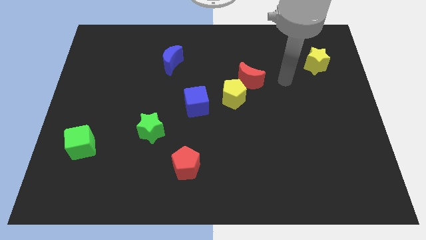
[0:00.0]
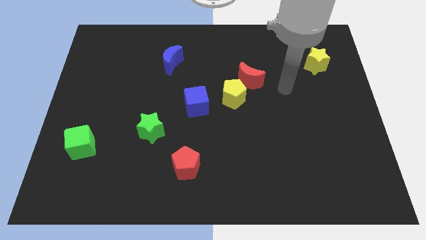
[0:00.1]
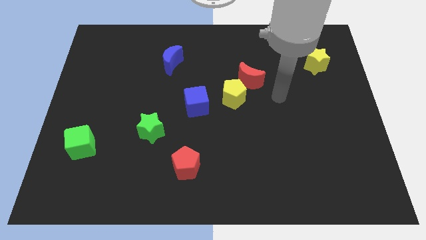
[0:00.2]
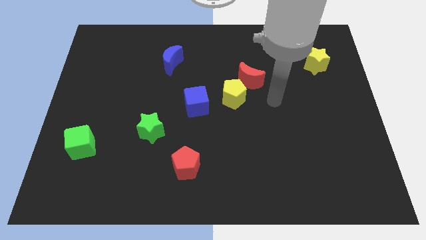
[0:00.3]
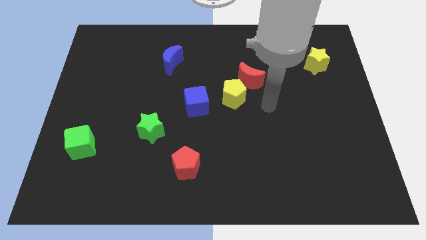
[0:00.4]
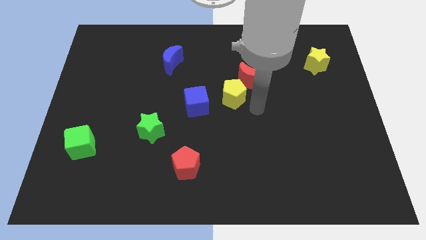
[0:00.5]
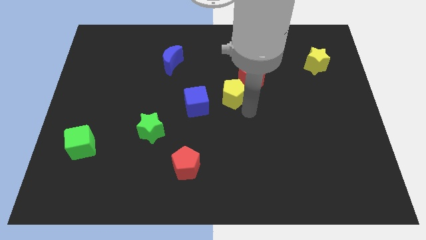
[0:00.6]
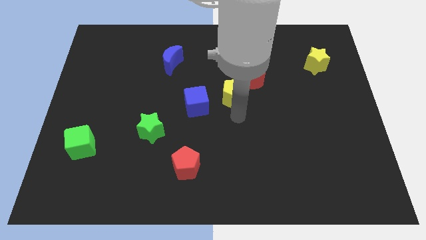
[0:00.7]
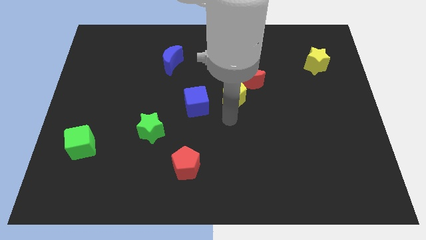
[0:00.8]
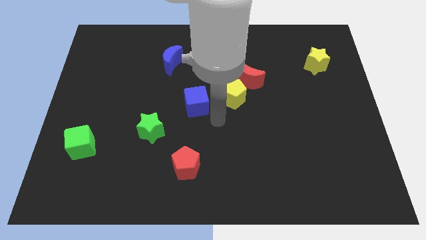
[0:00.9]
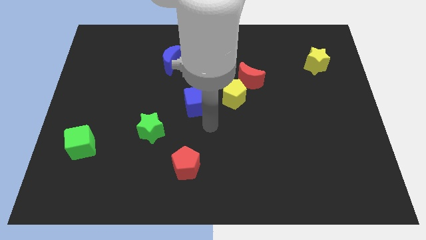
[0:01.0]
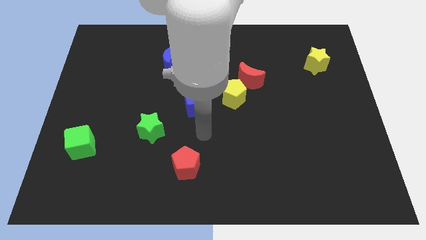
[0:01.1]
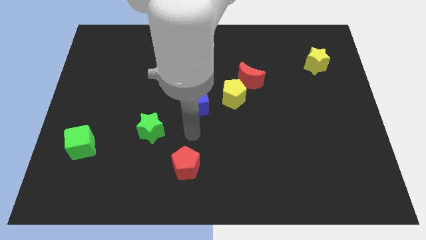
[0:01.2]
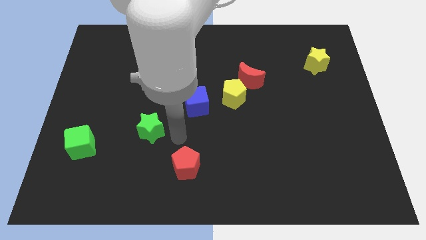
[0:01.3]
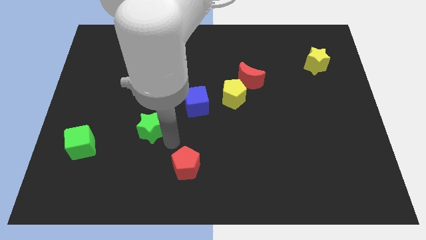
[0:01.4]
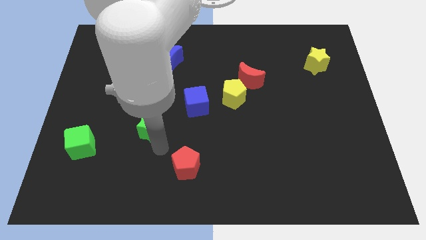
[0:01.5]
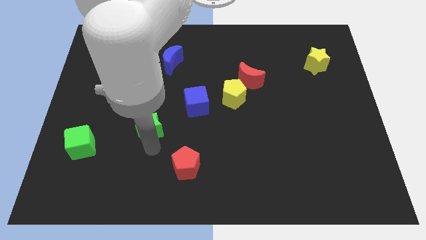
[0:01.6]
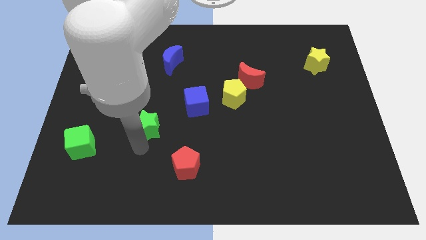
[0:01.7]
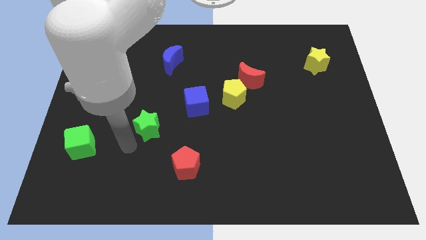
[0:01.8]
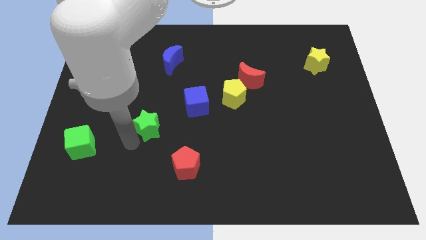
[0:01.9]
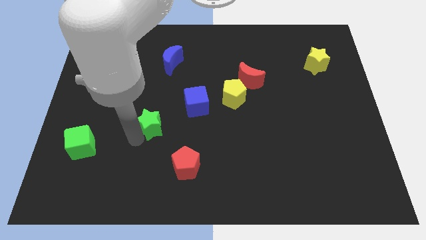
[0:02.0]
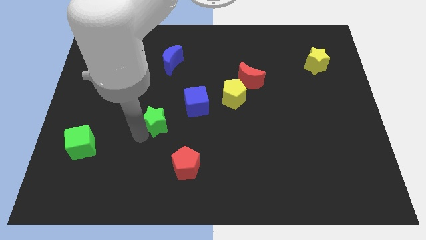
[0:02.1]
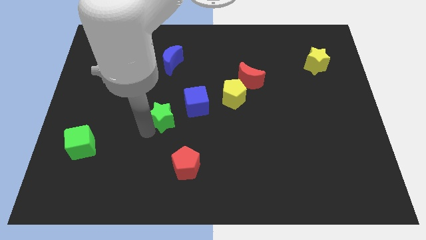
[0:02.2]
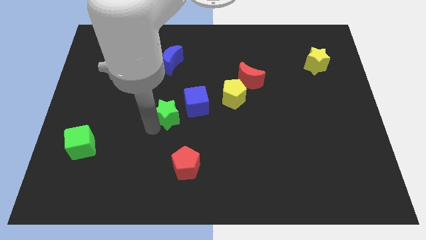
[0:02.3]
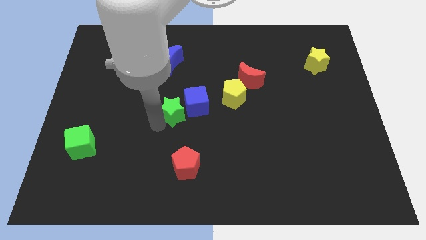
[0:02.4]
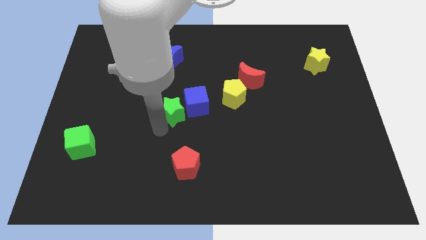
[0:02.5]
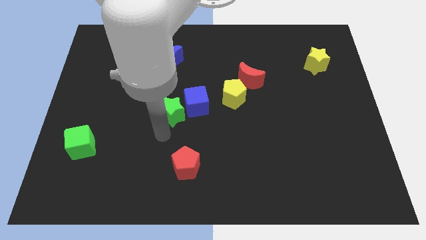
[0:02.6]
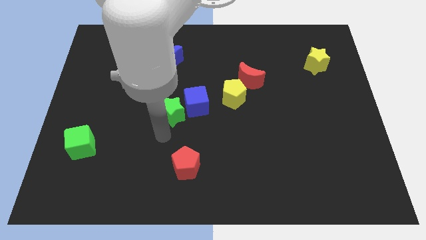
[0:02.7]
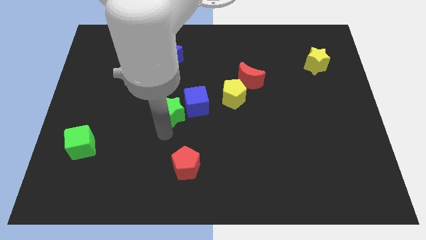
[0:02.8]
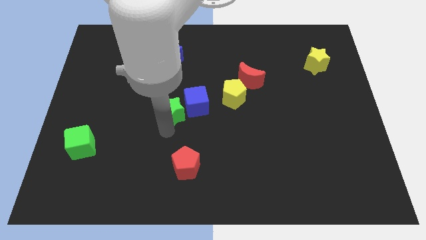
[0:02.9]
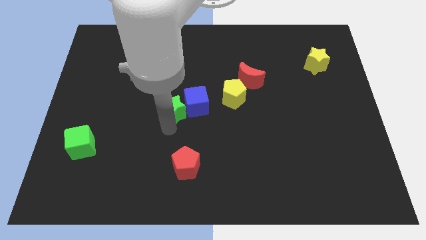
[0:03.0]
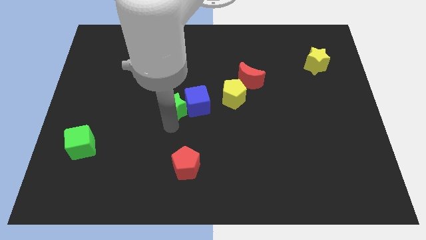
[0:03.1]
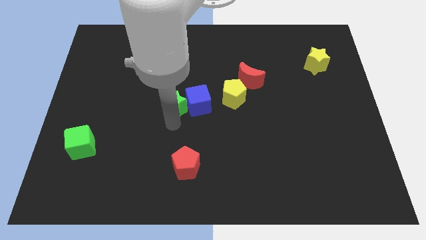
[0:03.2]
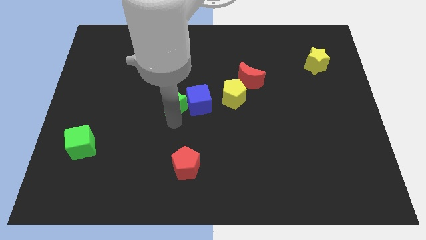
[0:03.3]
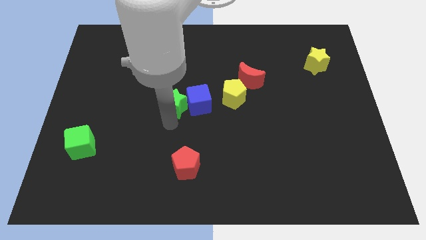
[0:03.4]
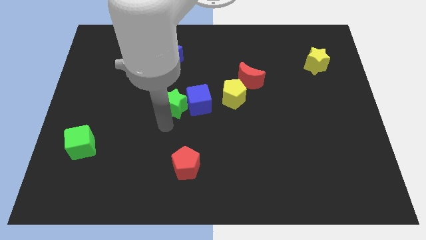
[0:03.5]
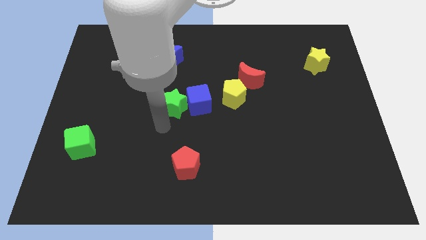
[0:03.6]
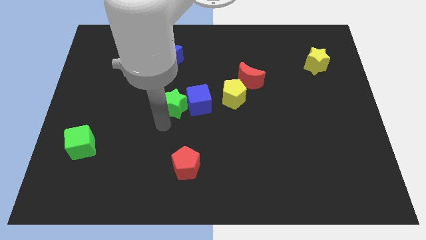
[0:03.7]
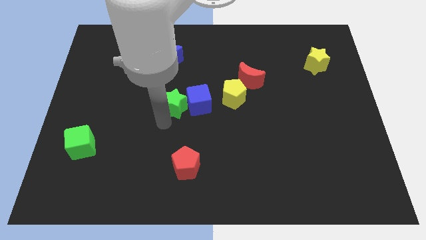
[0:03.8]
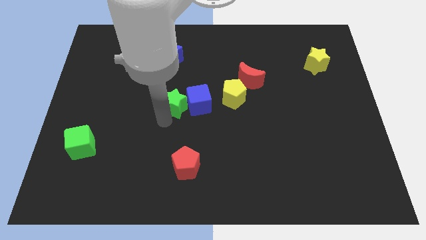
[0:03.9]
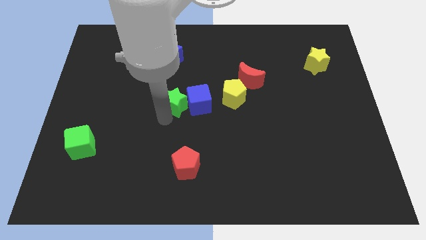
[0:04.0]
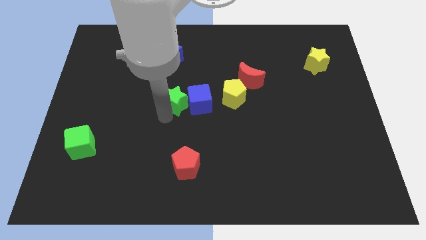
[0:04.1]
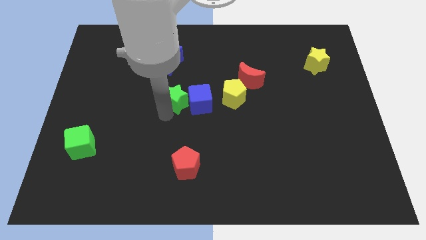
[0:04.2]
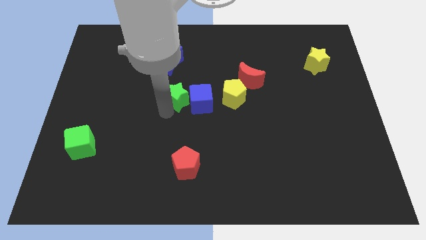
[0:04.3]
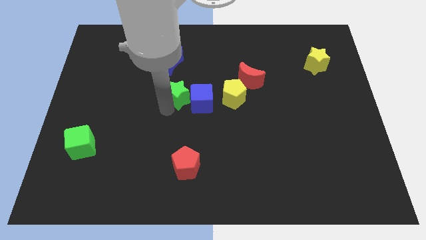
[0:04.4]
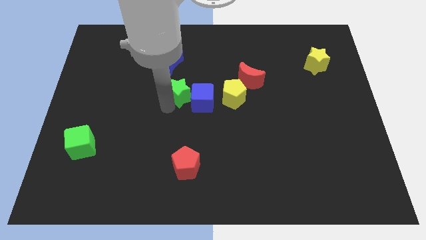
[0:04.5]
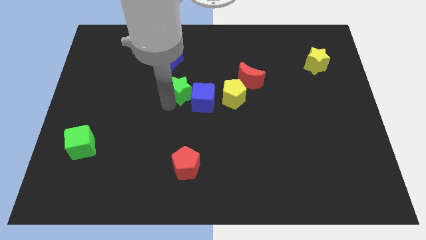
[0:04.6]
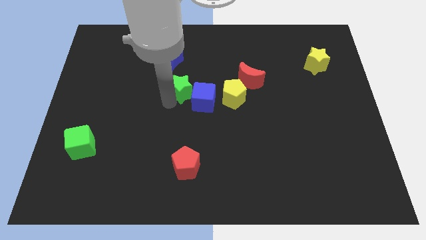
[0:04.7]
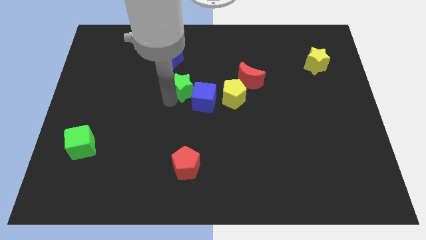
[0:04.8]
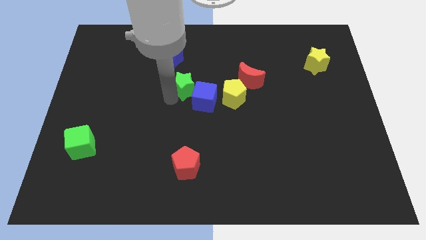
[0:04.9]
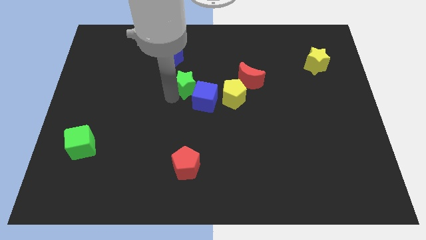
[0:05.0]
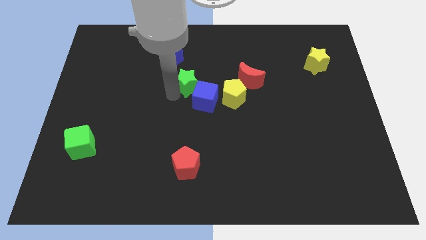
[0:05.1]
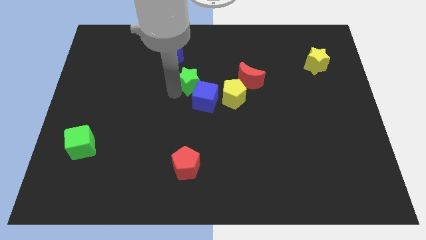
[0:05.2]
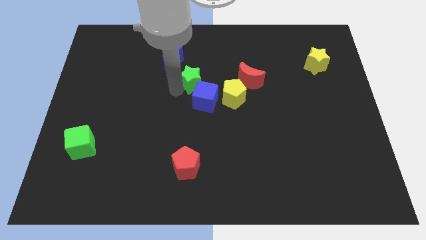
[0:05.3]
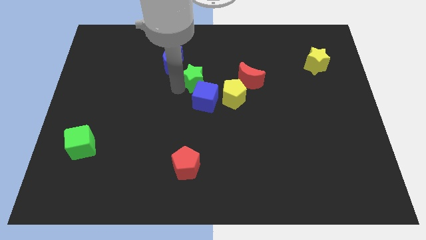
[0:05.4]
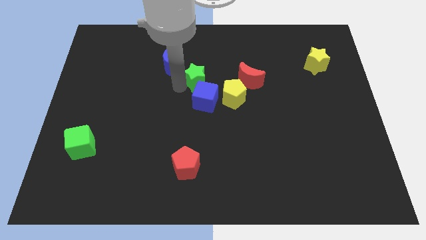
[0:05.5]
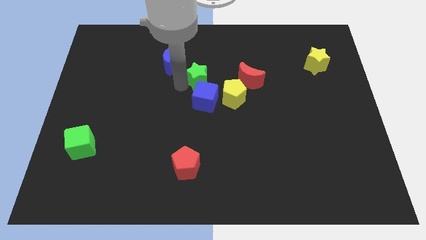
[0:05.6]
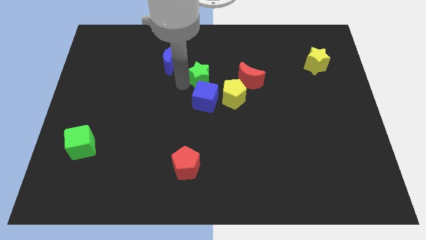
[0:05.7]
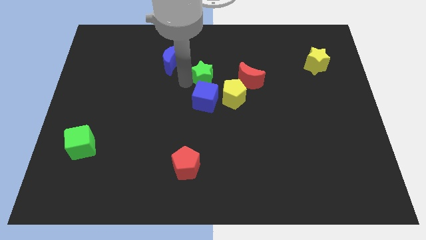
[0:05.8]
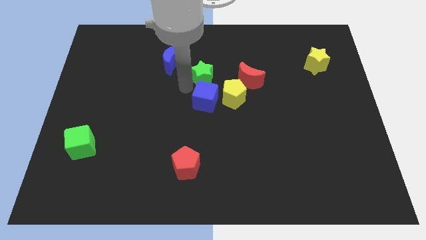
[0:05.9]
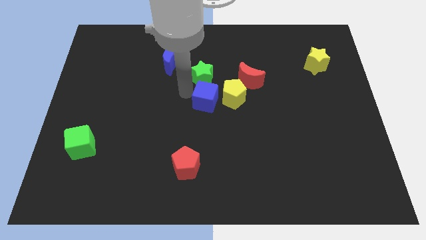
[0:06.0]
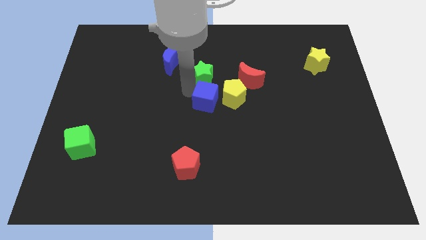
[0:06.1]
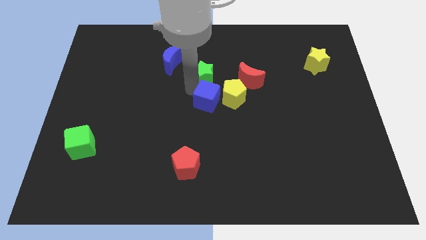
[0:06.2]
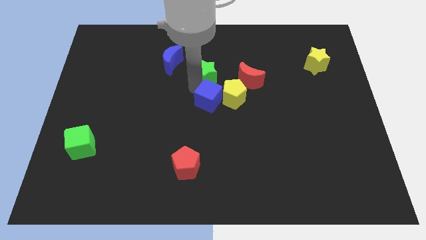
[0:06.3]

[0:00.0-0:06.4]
push the green star diagonally up and to the right

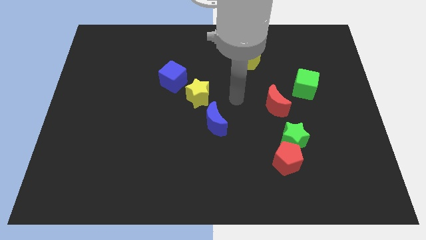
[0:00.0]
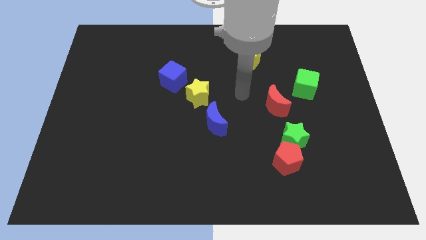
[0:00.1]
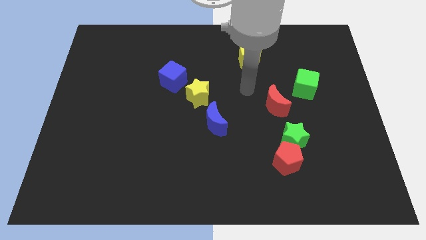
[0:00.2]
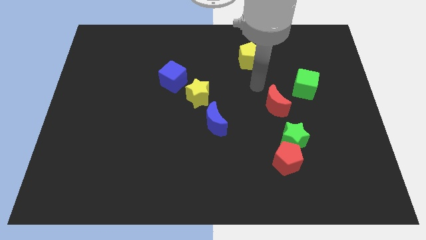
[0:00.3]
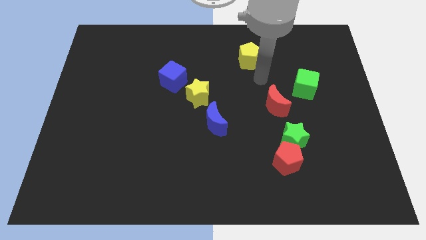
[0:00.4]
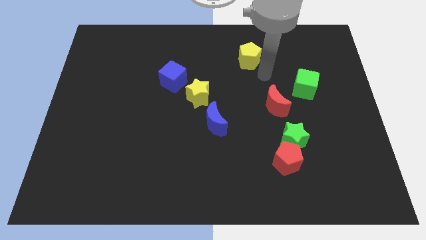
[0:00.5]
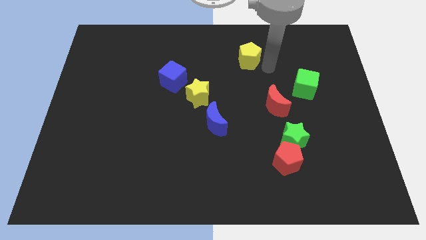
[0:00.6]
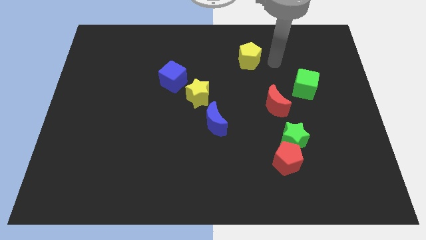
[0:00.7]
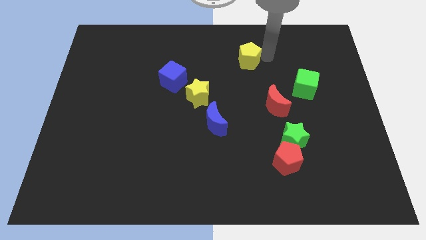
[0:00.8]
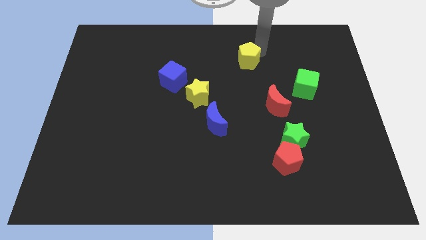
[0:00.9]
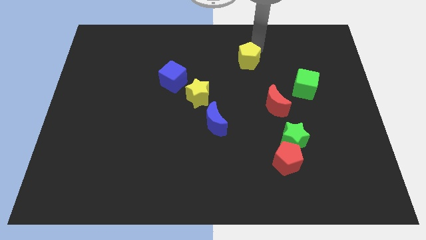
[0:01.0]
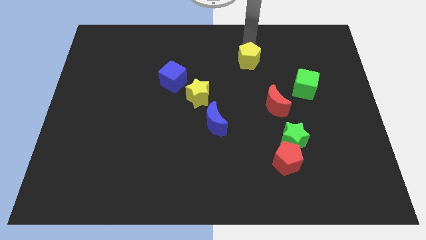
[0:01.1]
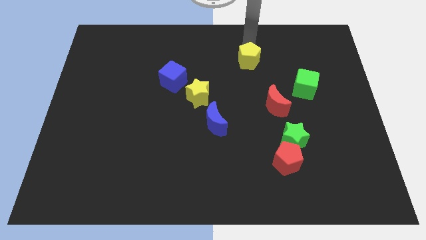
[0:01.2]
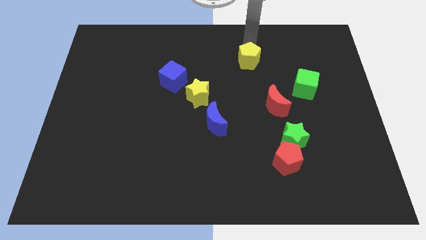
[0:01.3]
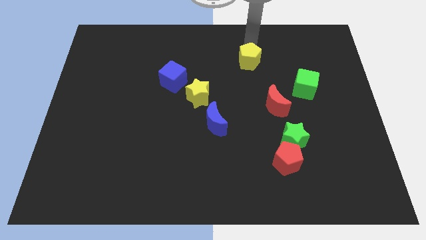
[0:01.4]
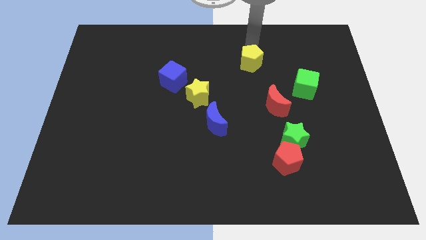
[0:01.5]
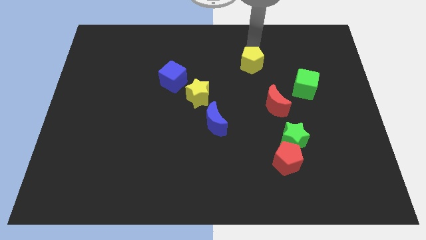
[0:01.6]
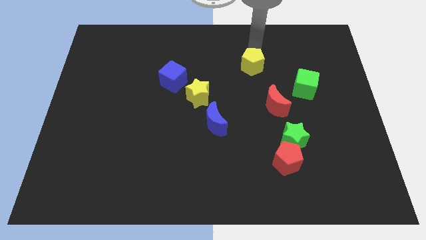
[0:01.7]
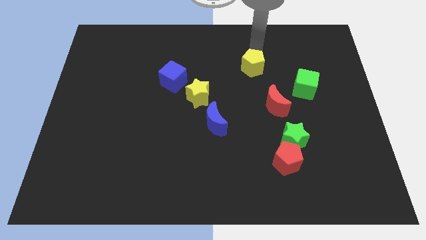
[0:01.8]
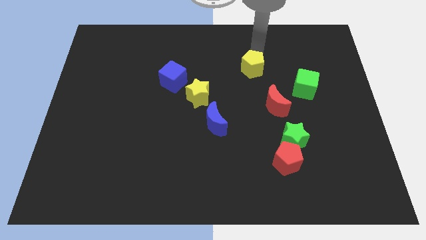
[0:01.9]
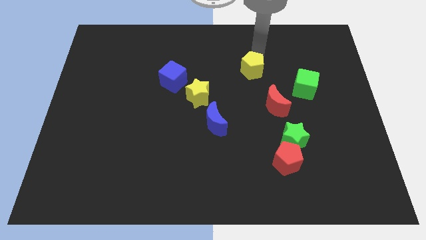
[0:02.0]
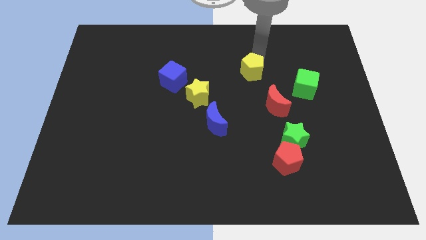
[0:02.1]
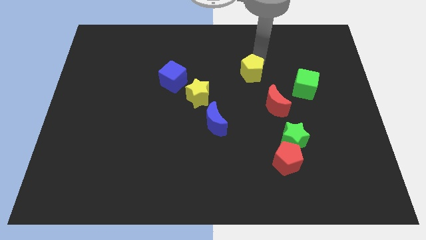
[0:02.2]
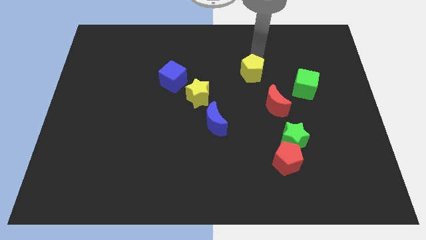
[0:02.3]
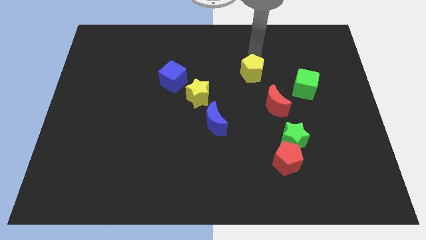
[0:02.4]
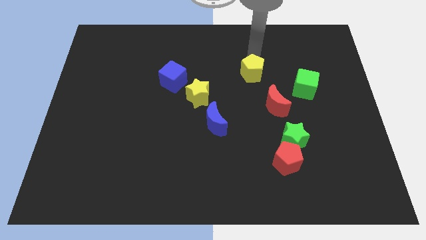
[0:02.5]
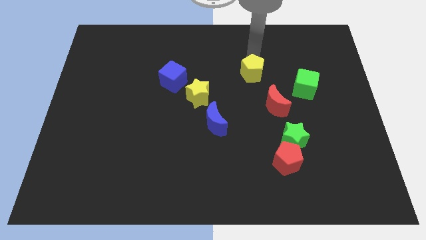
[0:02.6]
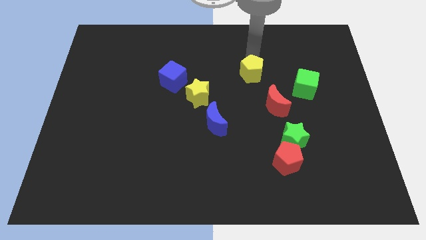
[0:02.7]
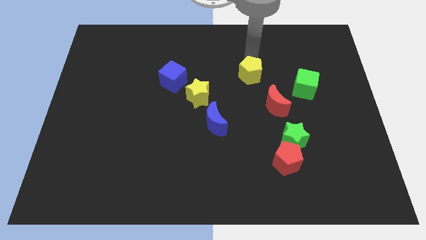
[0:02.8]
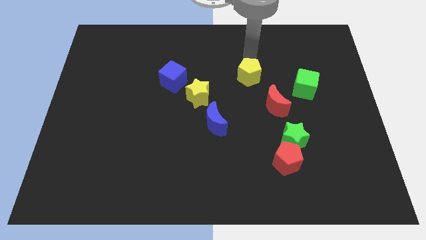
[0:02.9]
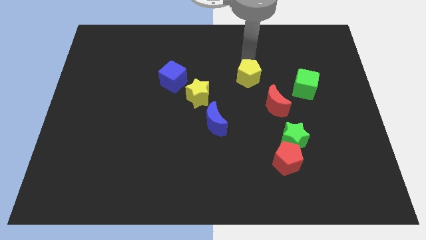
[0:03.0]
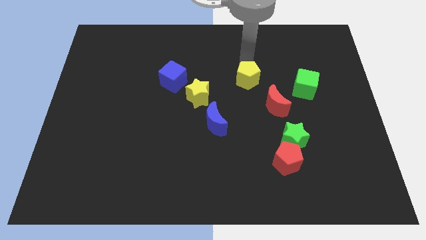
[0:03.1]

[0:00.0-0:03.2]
slightly slide the yellow pentagon down
